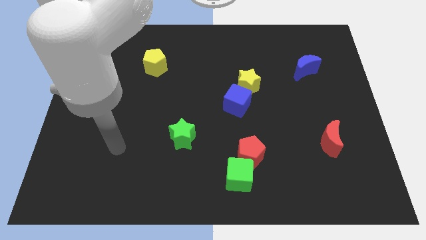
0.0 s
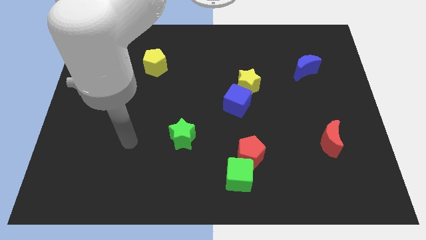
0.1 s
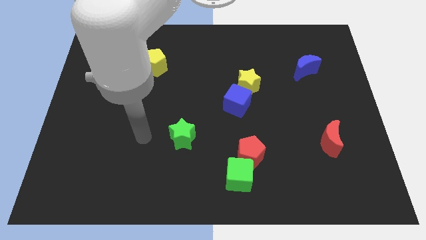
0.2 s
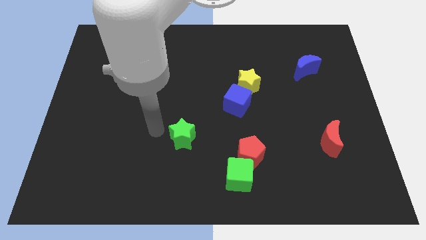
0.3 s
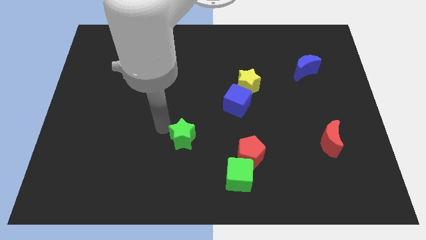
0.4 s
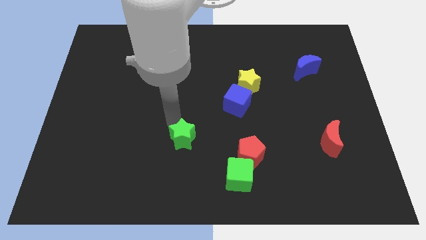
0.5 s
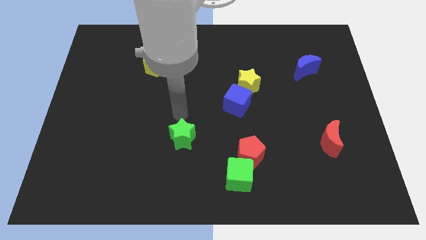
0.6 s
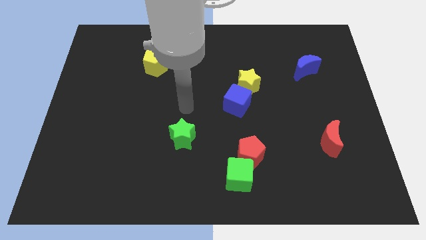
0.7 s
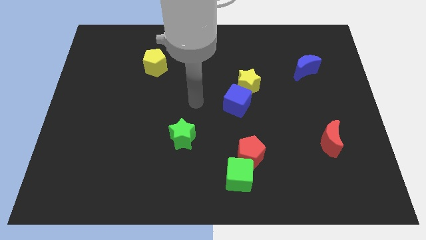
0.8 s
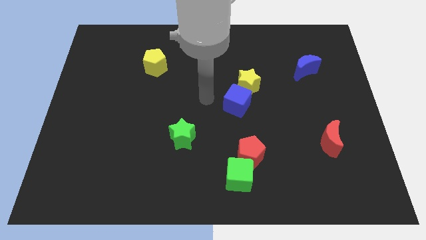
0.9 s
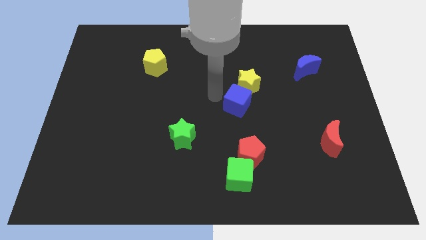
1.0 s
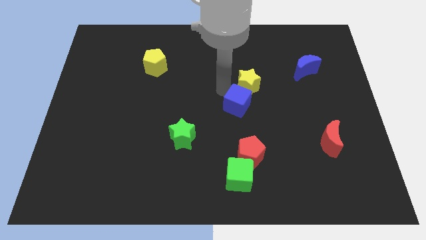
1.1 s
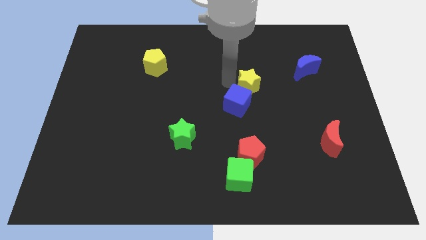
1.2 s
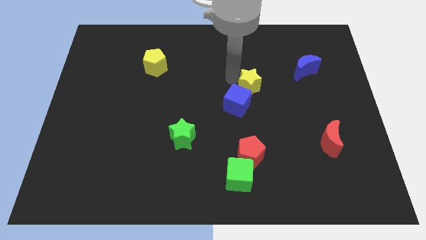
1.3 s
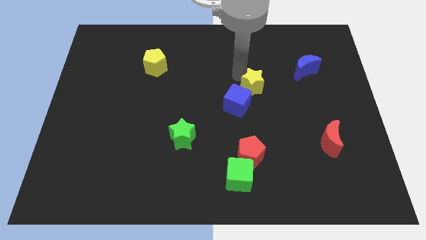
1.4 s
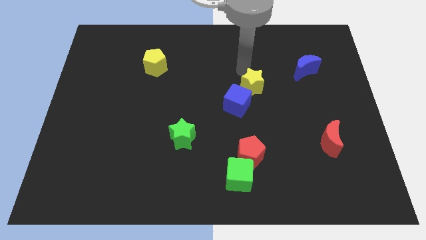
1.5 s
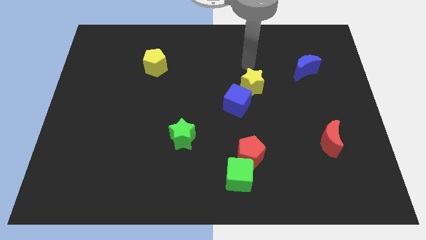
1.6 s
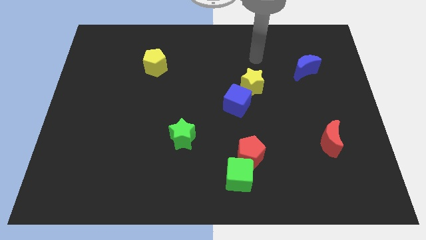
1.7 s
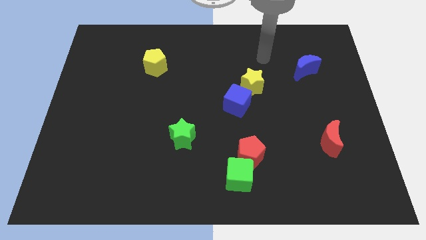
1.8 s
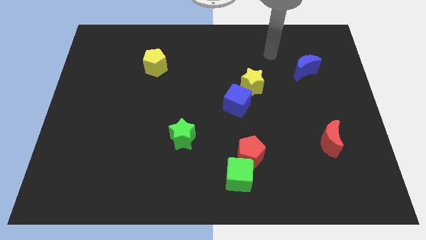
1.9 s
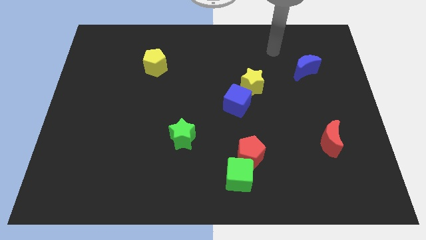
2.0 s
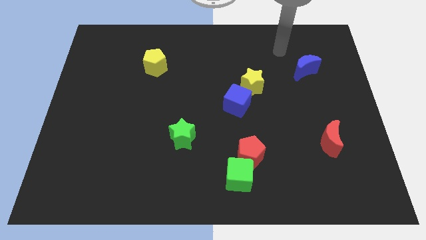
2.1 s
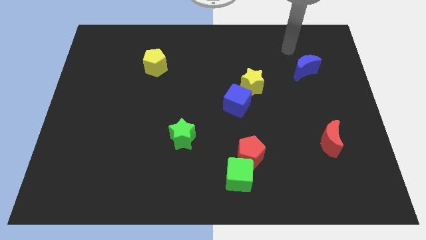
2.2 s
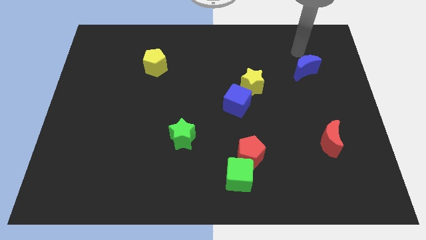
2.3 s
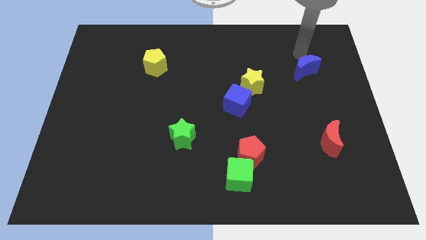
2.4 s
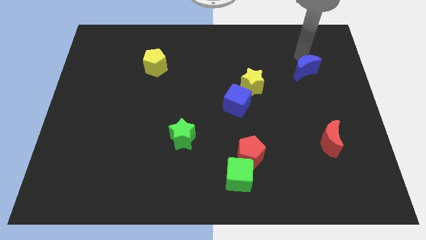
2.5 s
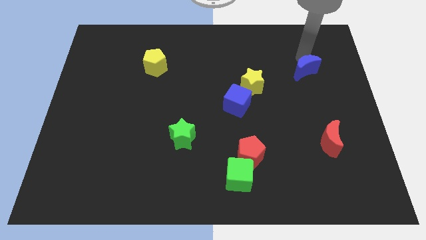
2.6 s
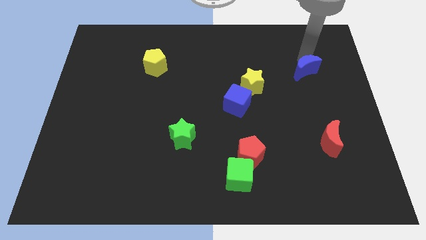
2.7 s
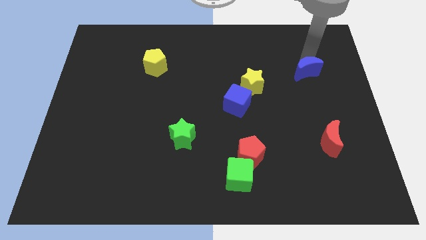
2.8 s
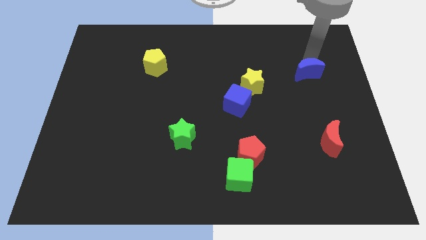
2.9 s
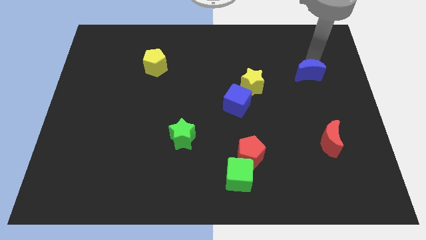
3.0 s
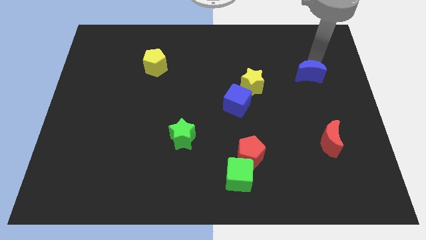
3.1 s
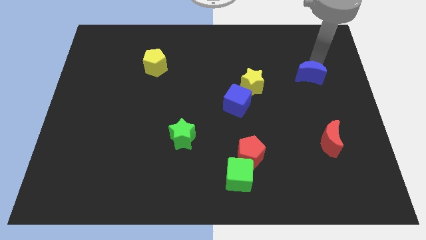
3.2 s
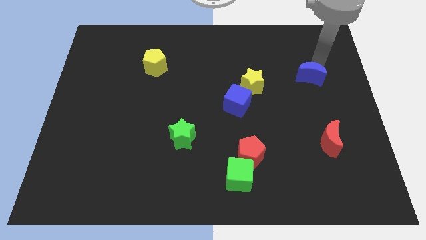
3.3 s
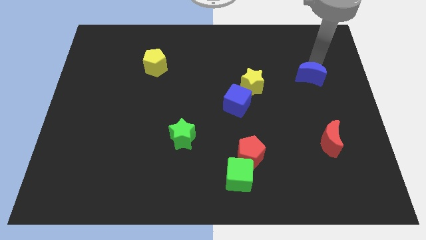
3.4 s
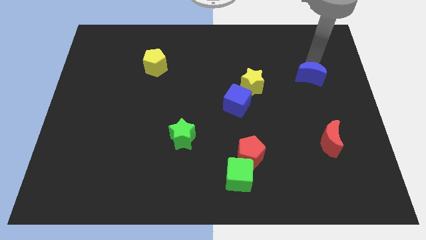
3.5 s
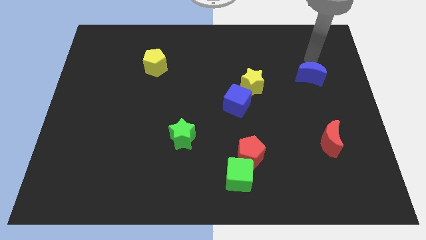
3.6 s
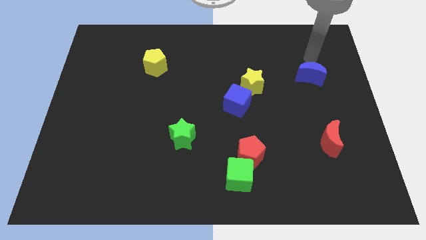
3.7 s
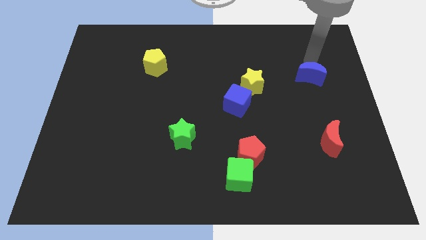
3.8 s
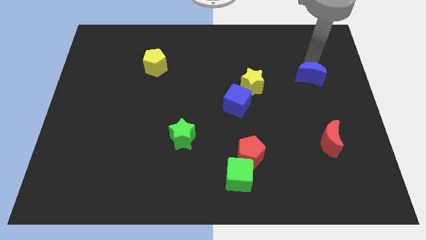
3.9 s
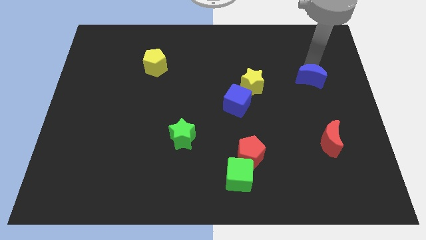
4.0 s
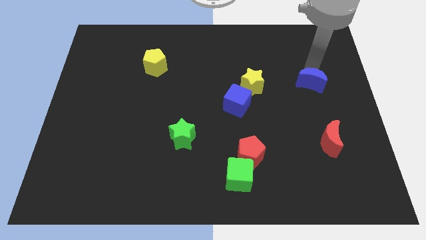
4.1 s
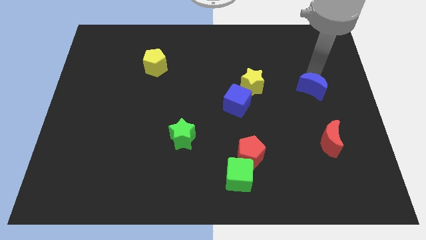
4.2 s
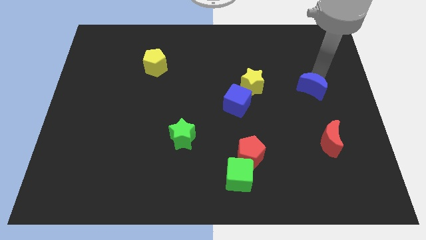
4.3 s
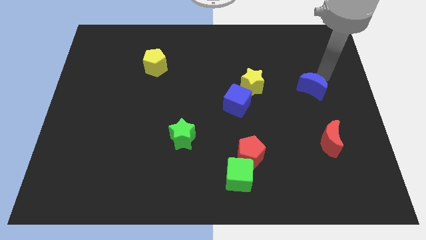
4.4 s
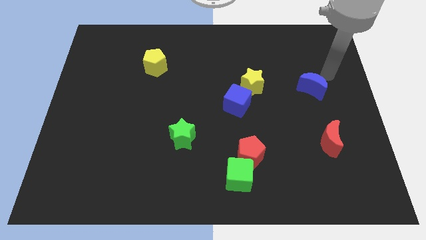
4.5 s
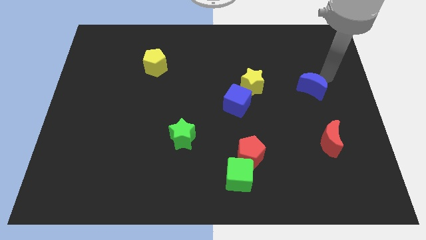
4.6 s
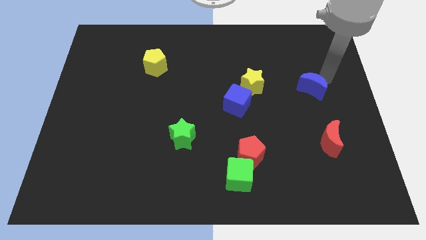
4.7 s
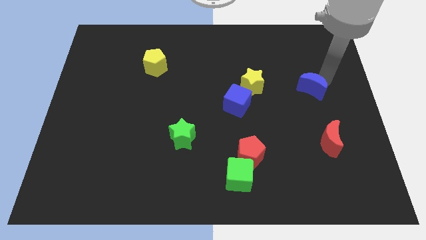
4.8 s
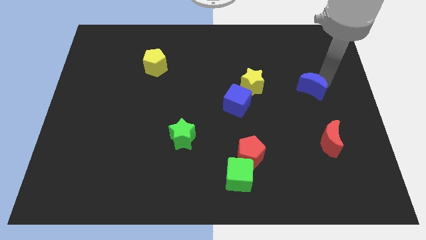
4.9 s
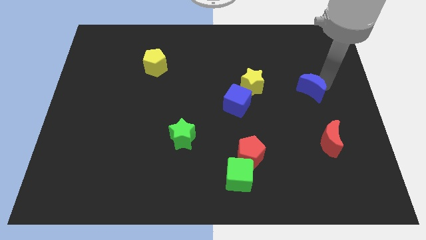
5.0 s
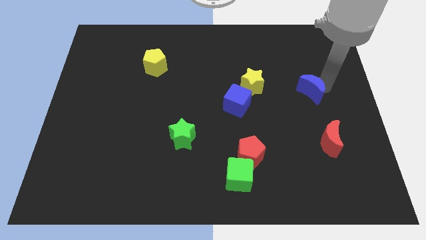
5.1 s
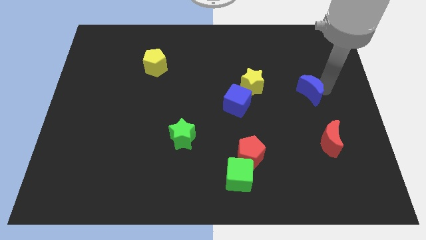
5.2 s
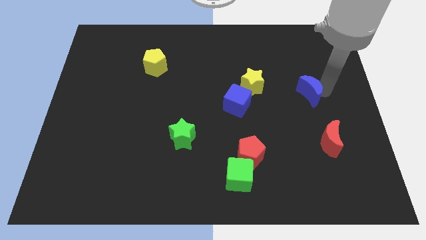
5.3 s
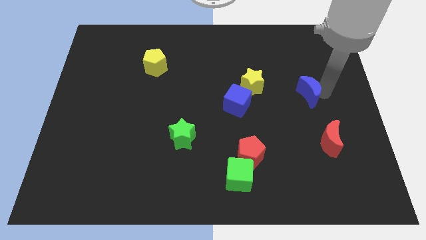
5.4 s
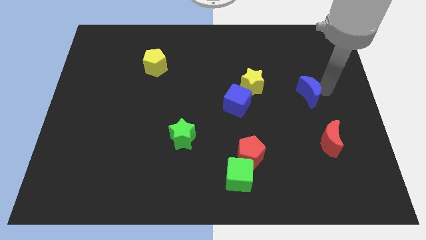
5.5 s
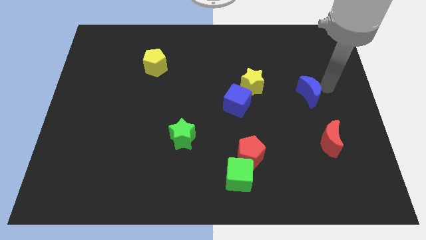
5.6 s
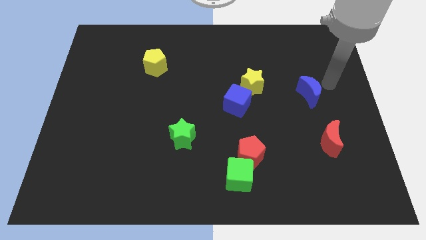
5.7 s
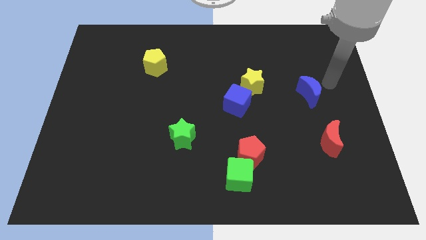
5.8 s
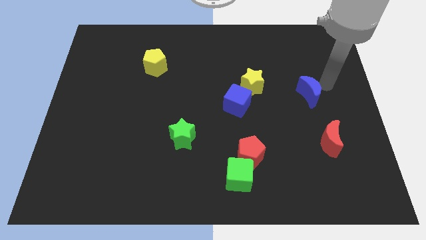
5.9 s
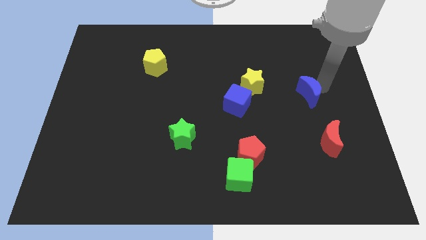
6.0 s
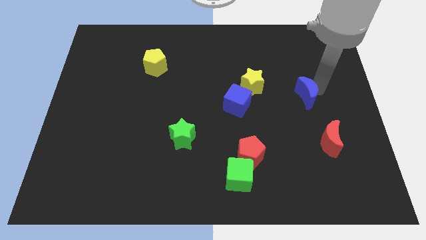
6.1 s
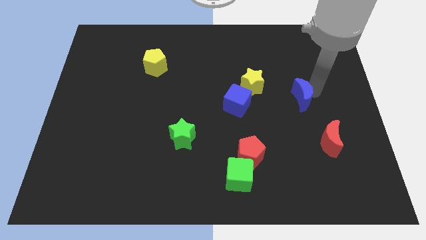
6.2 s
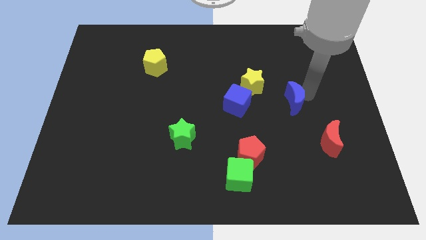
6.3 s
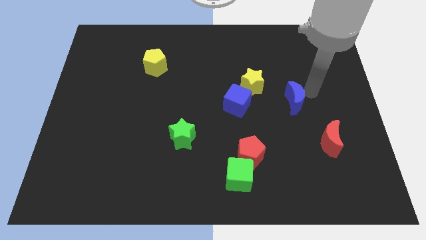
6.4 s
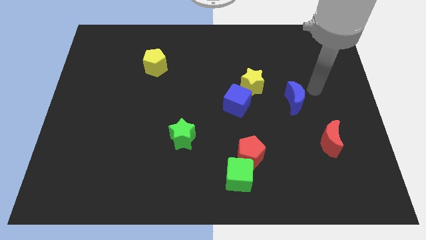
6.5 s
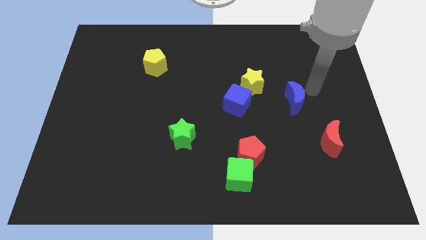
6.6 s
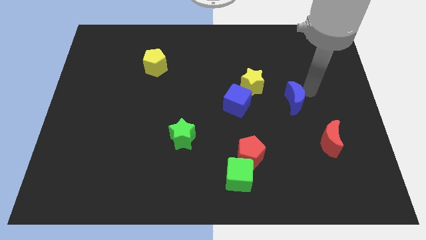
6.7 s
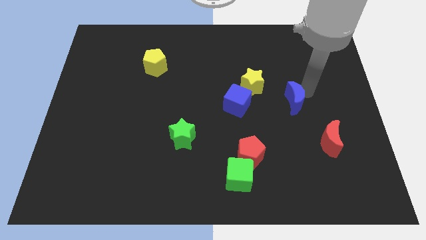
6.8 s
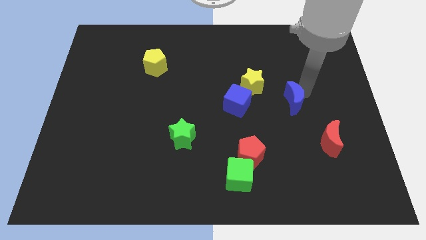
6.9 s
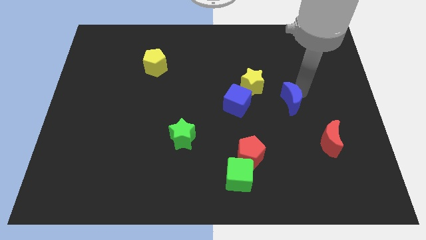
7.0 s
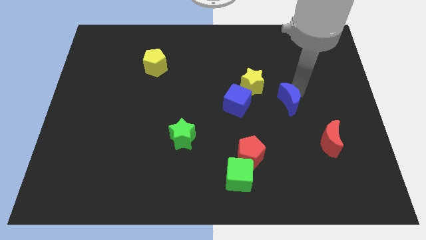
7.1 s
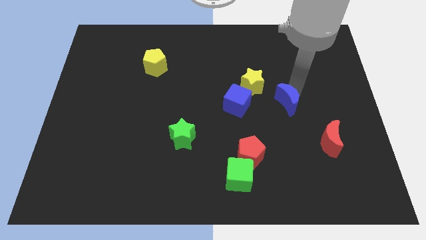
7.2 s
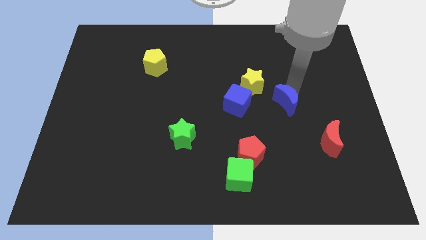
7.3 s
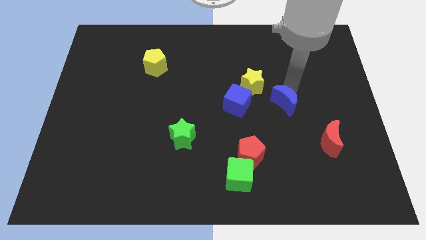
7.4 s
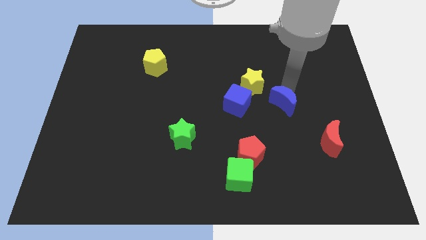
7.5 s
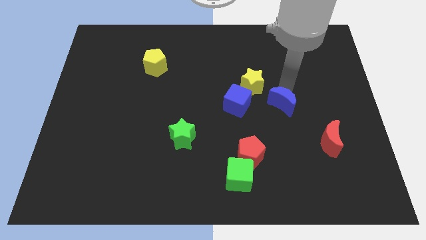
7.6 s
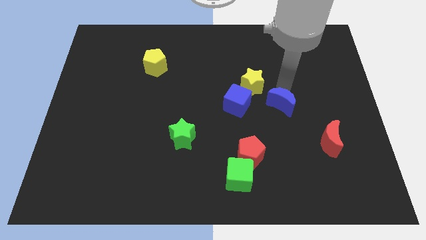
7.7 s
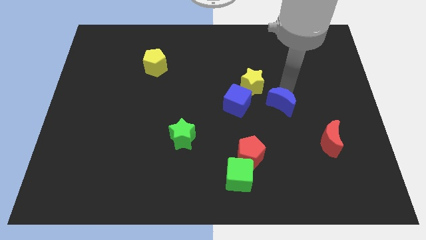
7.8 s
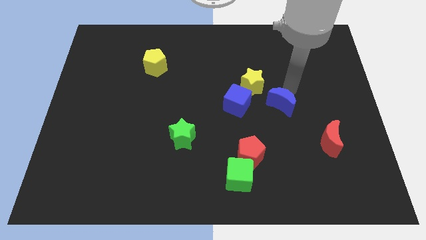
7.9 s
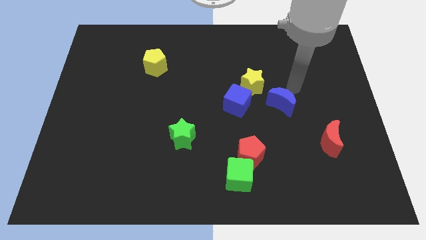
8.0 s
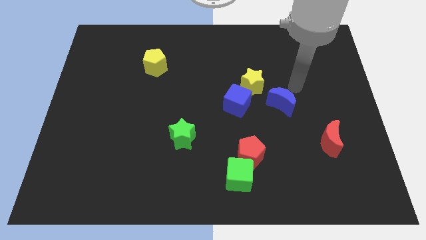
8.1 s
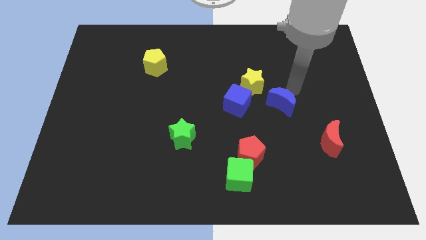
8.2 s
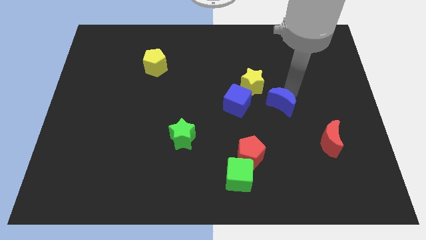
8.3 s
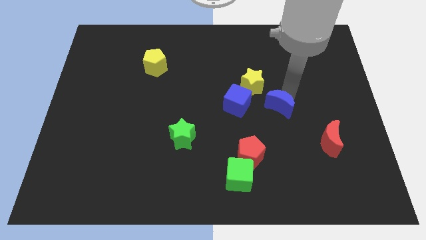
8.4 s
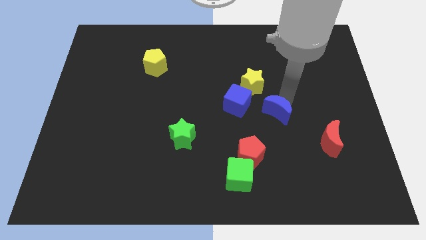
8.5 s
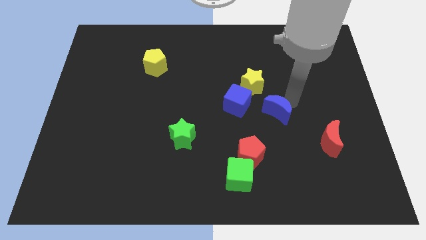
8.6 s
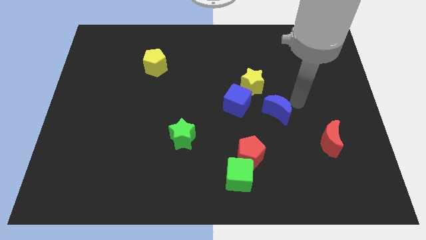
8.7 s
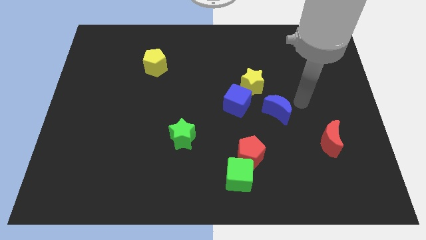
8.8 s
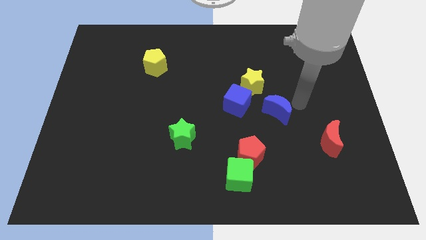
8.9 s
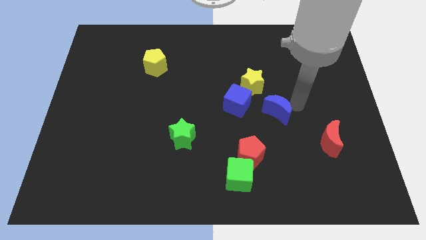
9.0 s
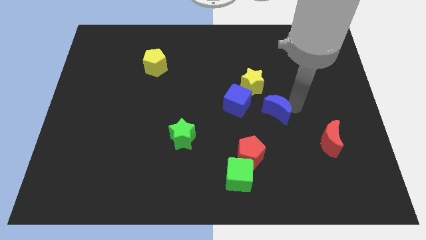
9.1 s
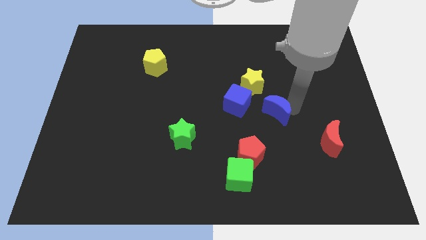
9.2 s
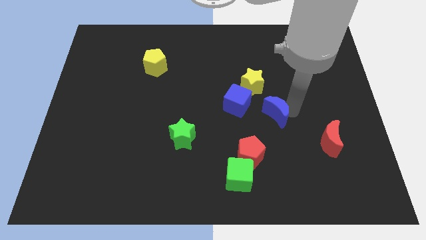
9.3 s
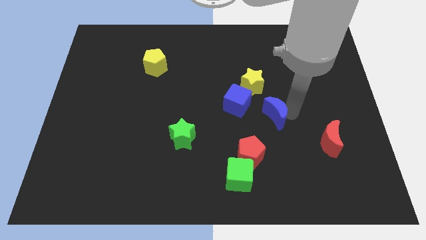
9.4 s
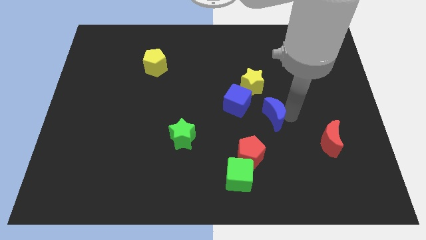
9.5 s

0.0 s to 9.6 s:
push the blue moon to the bottom side of the yellow star
